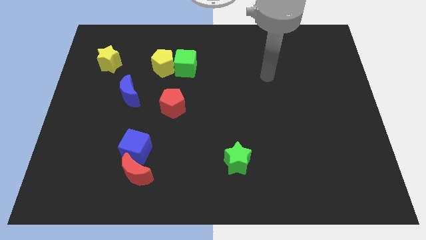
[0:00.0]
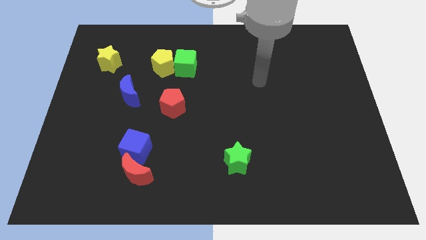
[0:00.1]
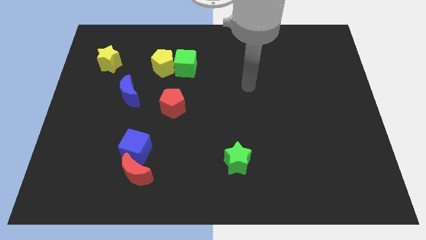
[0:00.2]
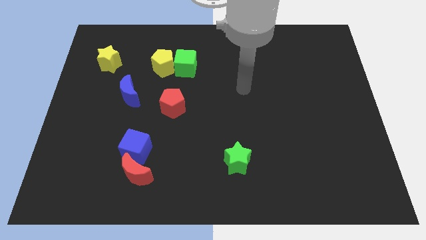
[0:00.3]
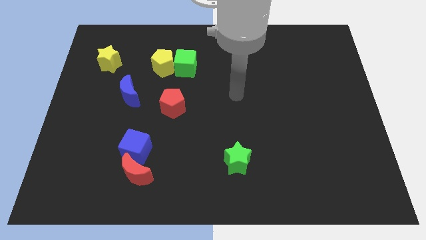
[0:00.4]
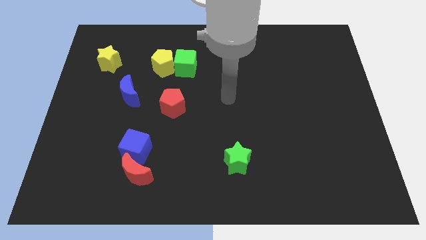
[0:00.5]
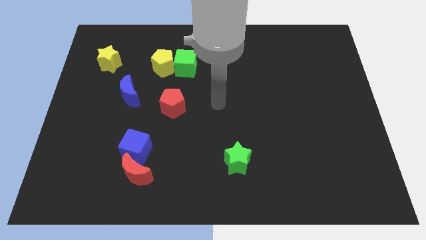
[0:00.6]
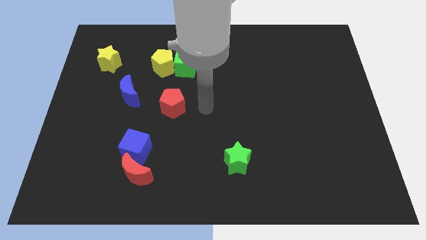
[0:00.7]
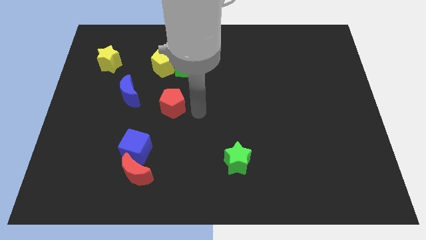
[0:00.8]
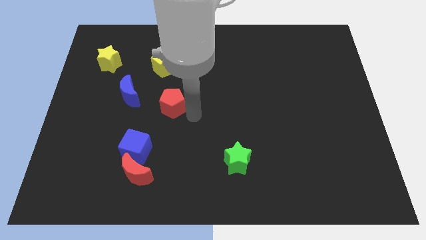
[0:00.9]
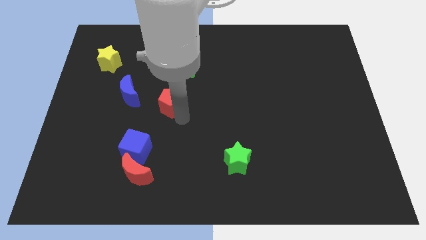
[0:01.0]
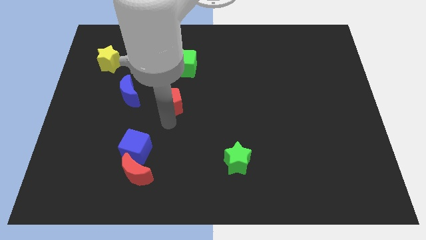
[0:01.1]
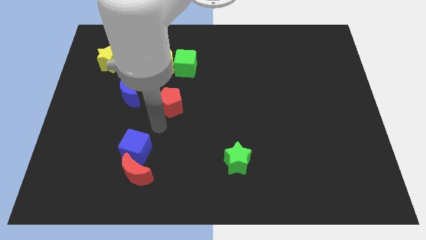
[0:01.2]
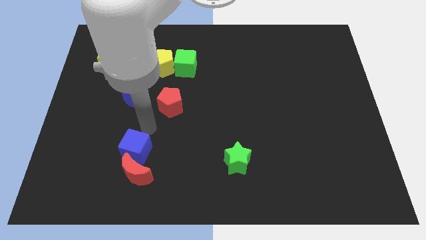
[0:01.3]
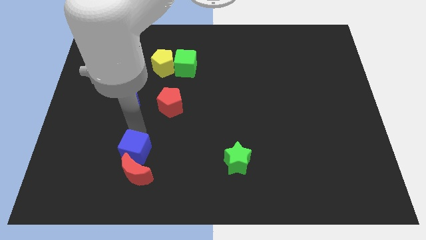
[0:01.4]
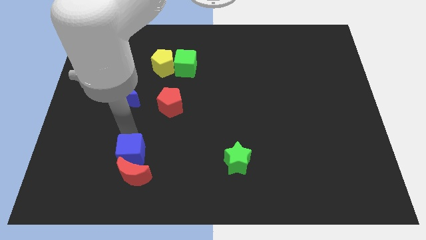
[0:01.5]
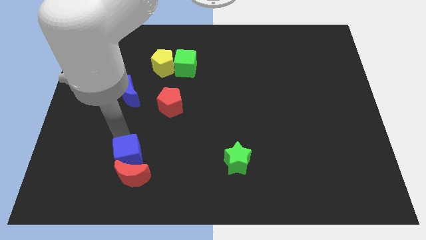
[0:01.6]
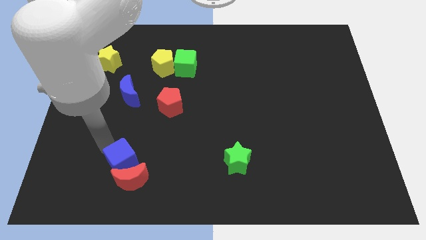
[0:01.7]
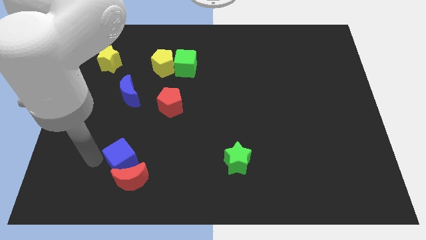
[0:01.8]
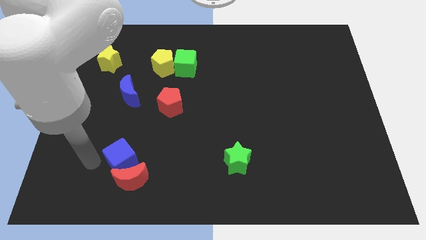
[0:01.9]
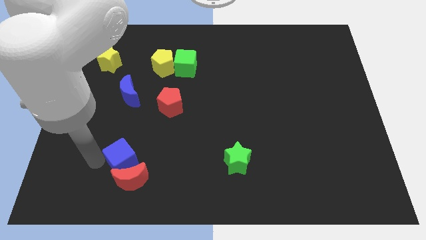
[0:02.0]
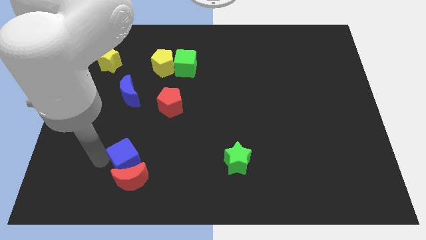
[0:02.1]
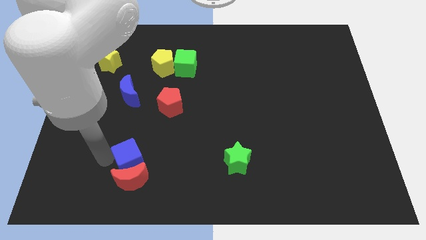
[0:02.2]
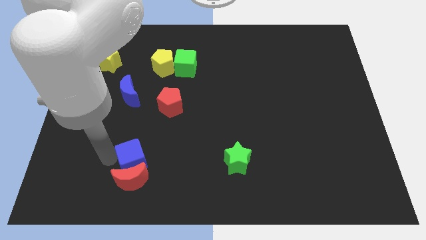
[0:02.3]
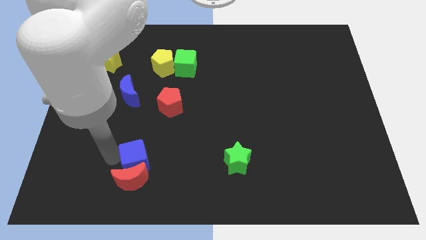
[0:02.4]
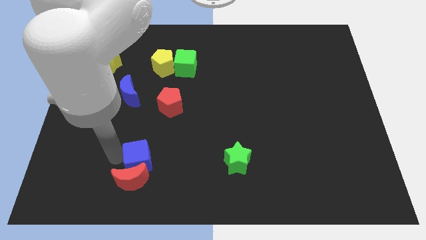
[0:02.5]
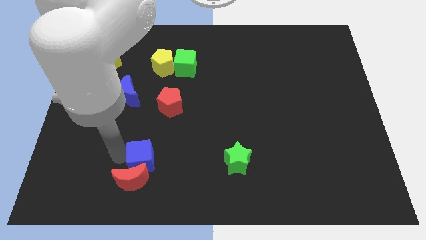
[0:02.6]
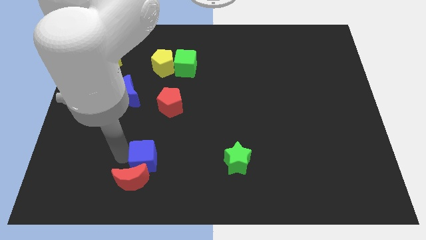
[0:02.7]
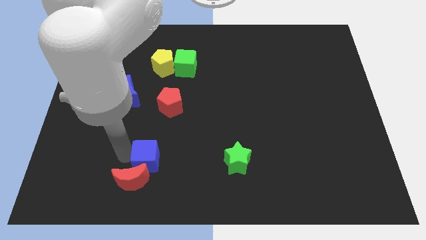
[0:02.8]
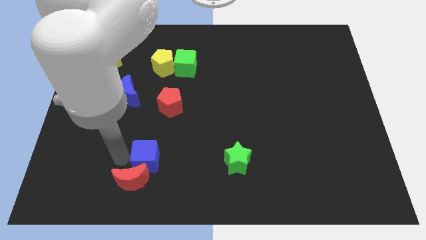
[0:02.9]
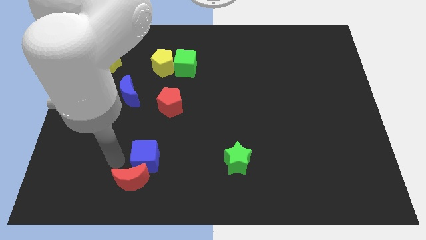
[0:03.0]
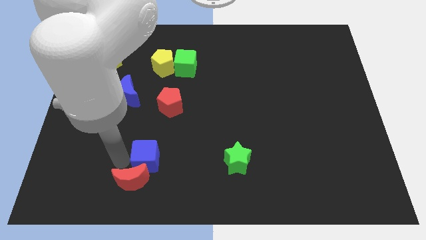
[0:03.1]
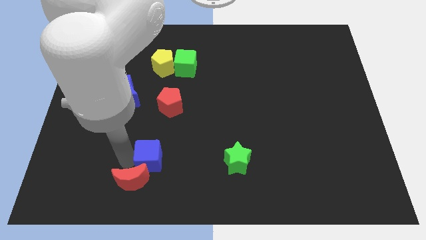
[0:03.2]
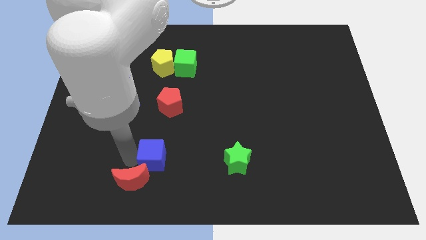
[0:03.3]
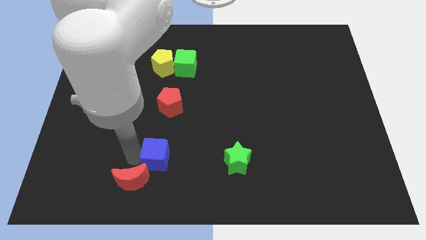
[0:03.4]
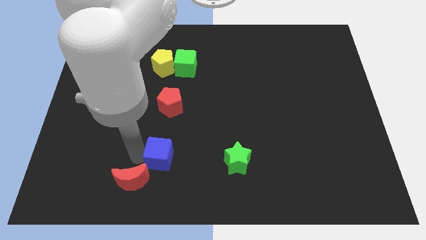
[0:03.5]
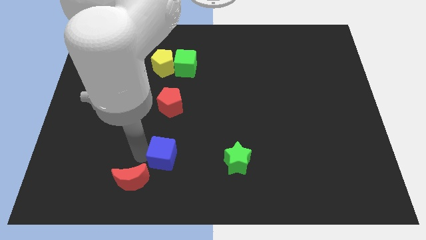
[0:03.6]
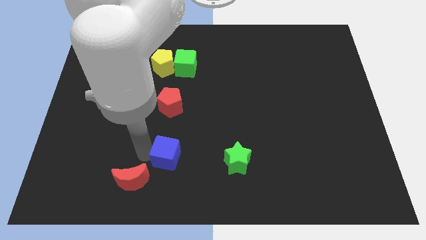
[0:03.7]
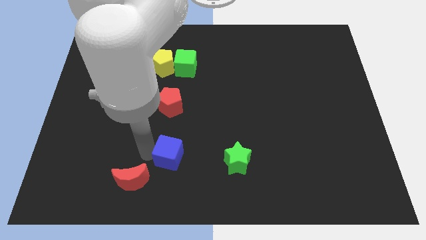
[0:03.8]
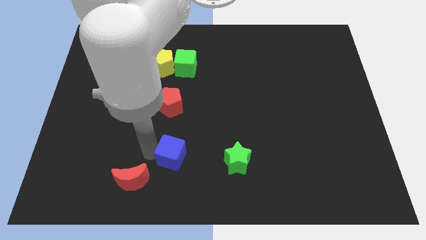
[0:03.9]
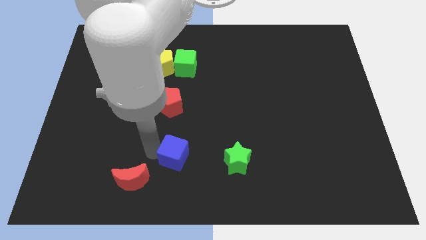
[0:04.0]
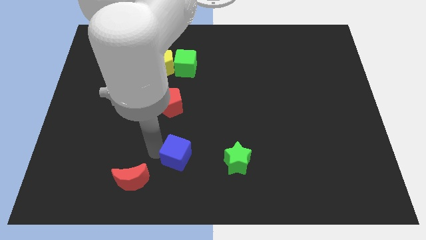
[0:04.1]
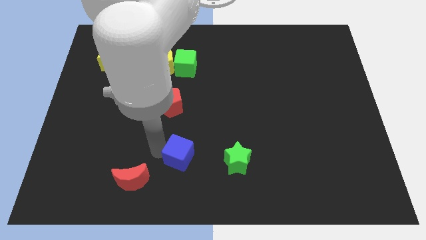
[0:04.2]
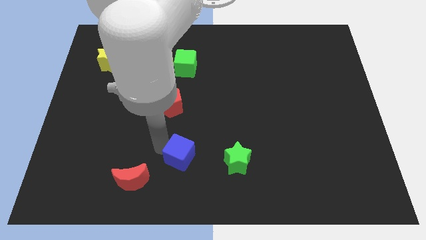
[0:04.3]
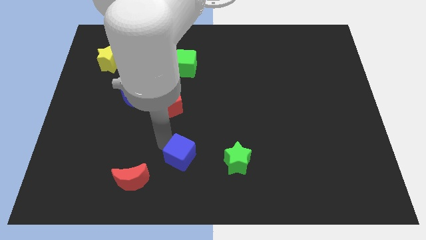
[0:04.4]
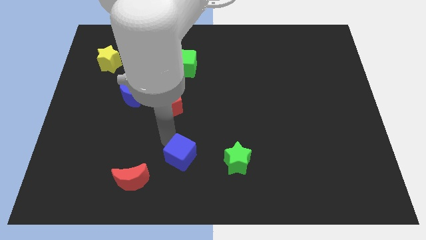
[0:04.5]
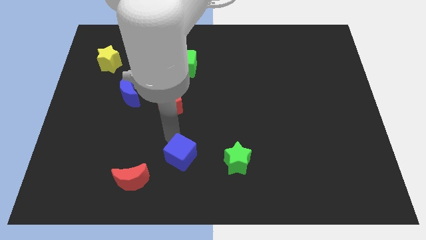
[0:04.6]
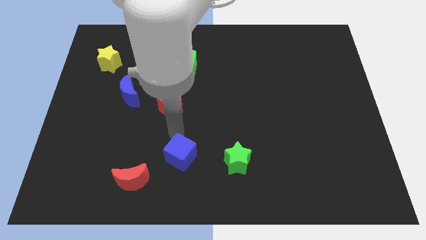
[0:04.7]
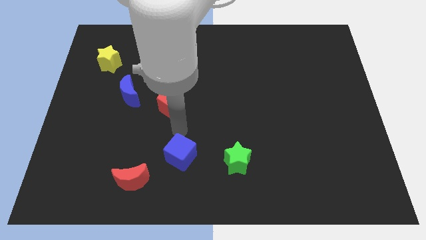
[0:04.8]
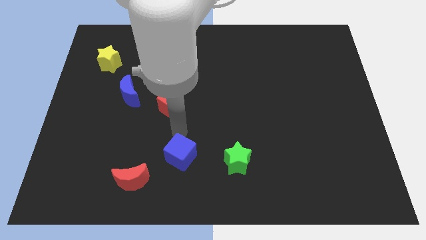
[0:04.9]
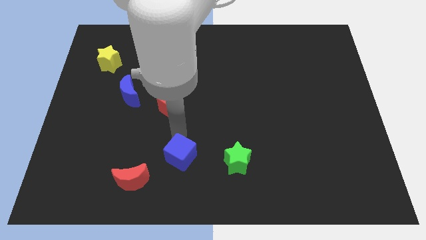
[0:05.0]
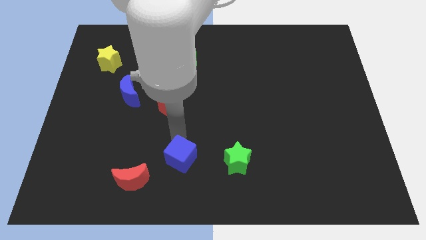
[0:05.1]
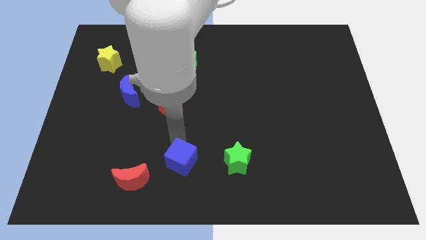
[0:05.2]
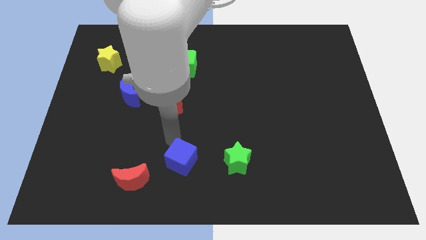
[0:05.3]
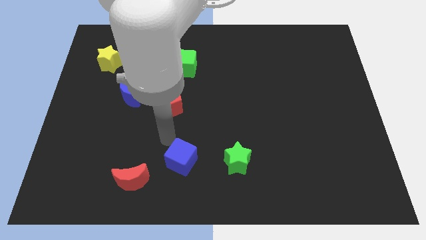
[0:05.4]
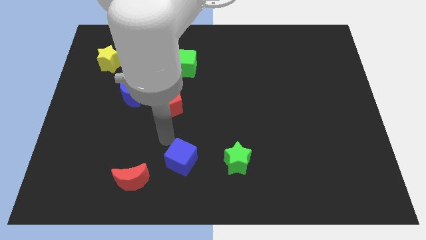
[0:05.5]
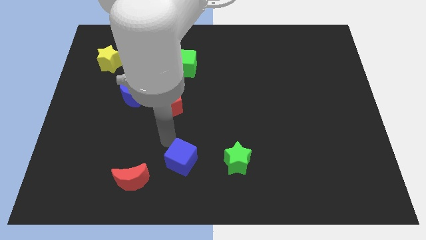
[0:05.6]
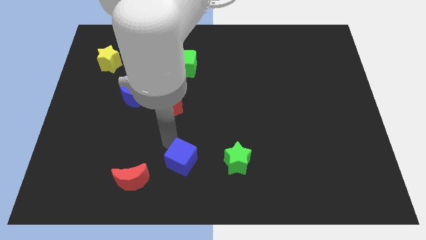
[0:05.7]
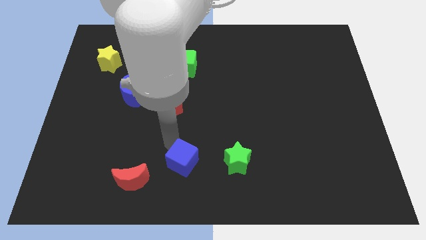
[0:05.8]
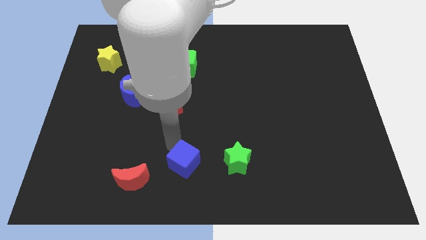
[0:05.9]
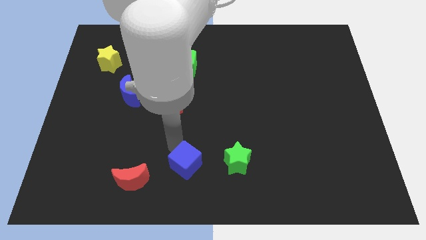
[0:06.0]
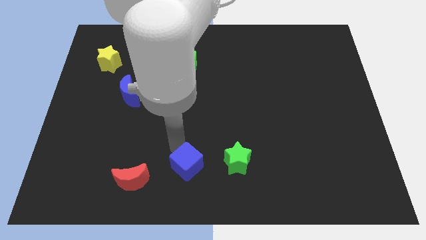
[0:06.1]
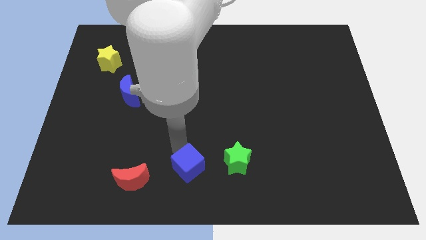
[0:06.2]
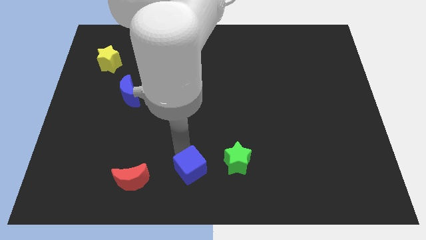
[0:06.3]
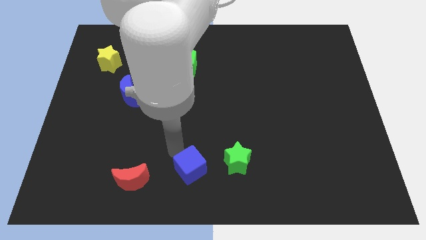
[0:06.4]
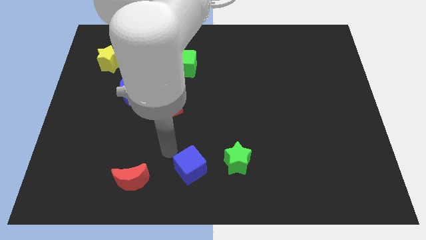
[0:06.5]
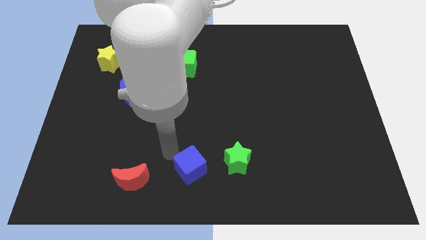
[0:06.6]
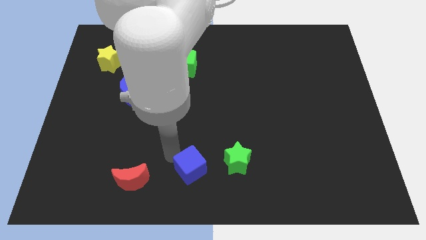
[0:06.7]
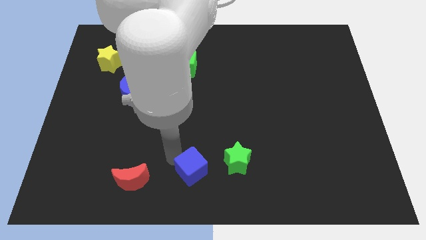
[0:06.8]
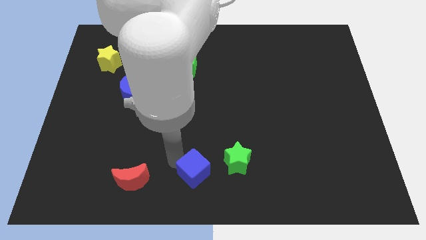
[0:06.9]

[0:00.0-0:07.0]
push the blue cube to the bottom left side of the green star

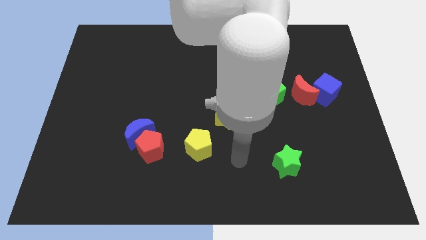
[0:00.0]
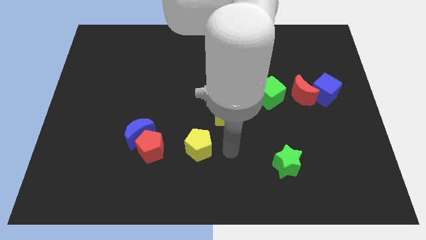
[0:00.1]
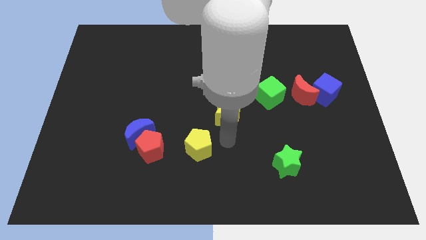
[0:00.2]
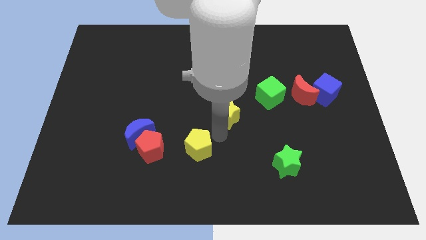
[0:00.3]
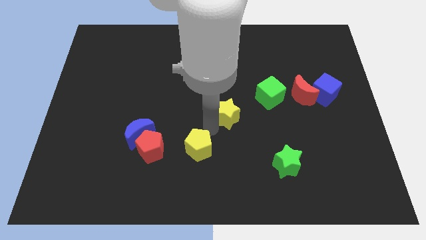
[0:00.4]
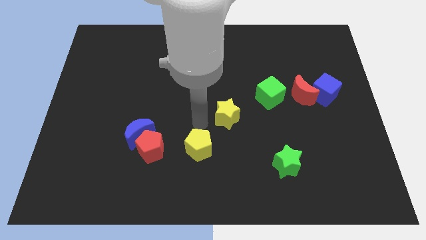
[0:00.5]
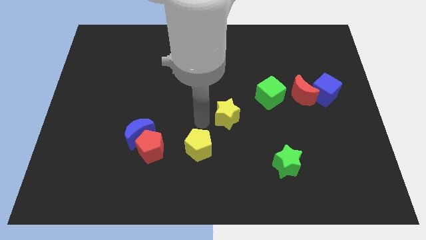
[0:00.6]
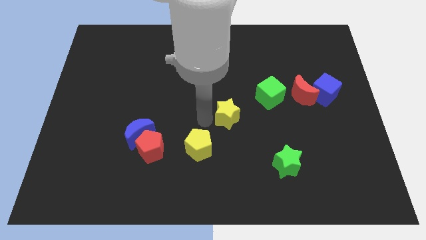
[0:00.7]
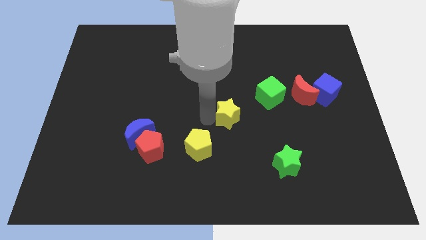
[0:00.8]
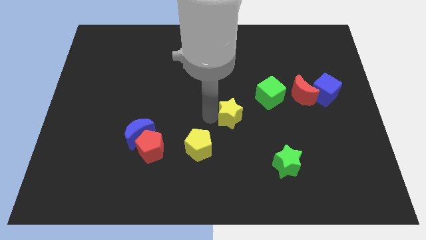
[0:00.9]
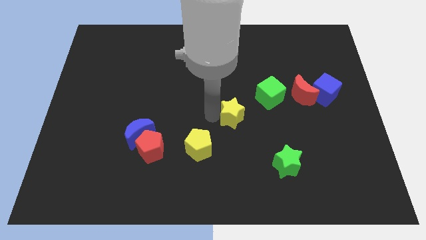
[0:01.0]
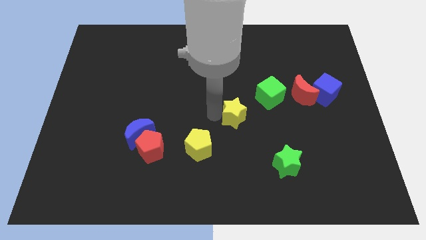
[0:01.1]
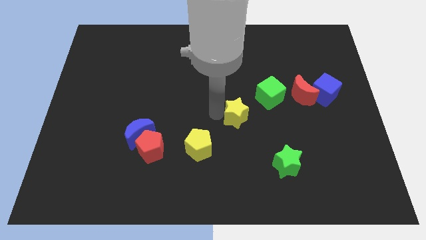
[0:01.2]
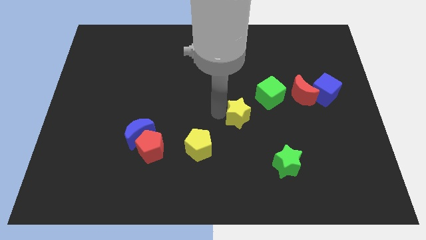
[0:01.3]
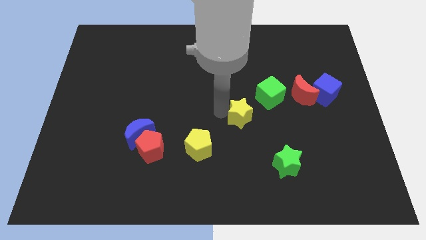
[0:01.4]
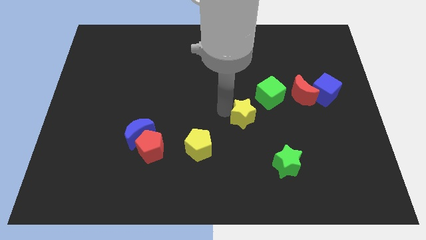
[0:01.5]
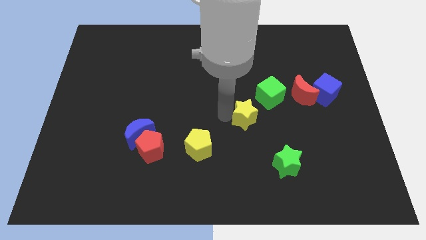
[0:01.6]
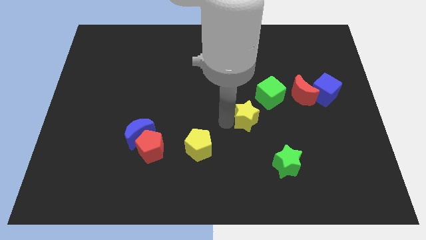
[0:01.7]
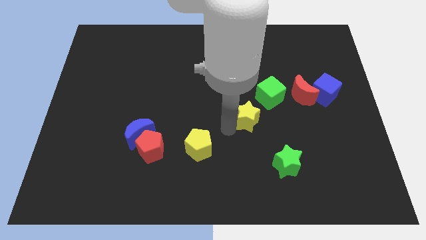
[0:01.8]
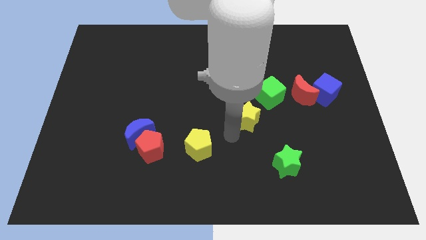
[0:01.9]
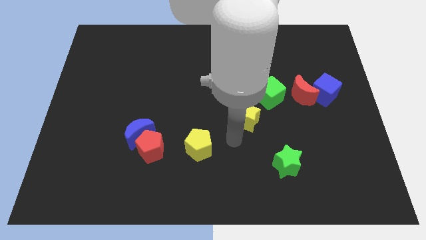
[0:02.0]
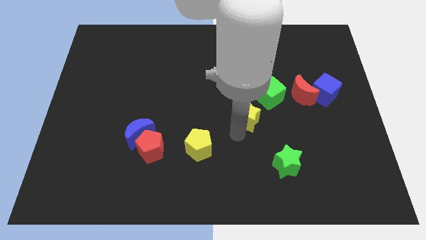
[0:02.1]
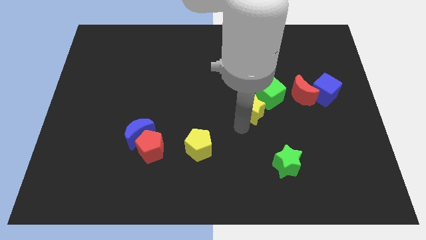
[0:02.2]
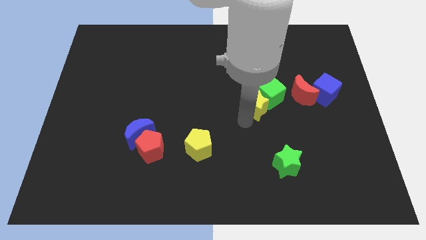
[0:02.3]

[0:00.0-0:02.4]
put the yellow star left of the red moon
